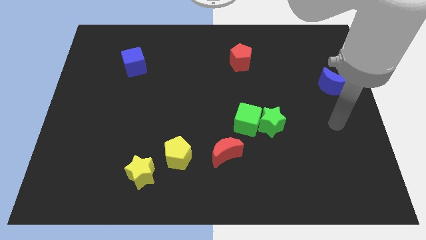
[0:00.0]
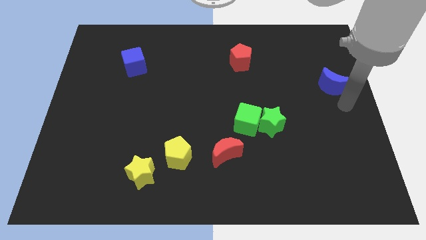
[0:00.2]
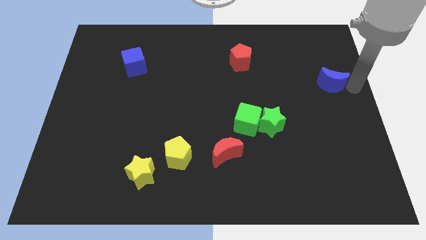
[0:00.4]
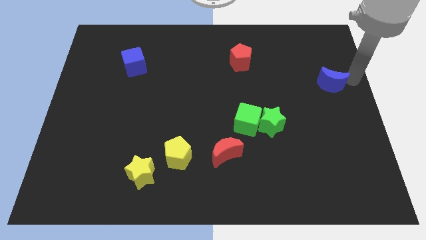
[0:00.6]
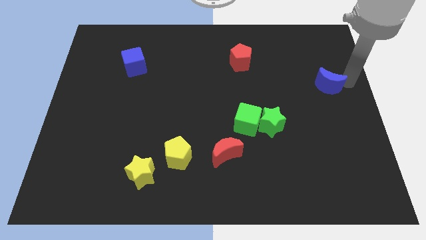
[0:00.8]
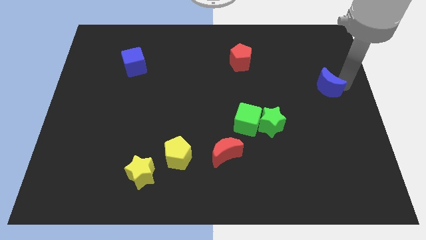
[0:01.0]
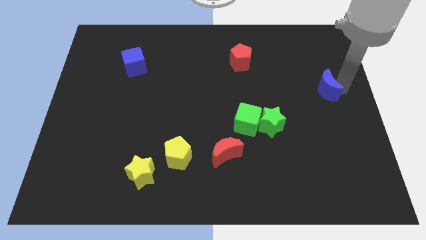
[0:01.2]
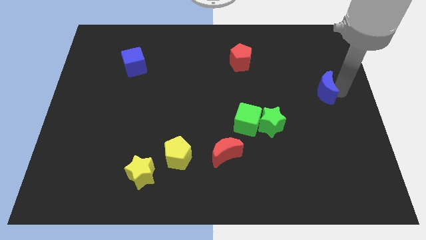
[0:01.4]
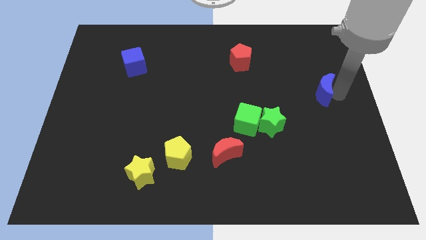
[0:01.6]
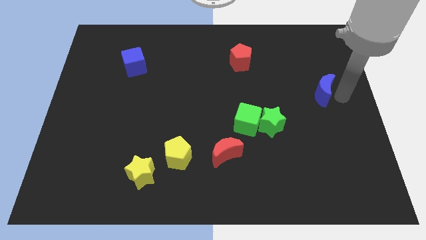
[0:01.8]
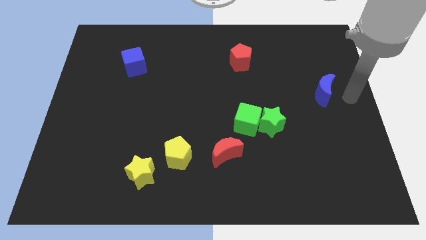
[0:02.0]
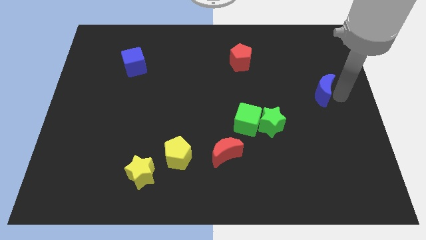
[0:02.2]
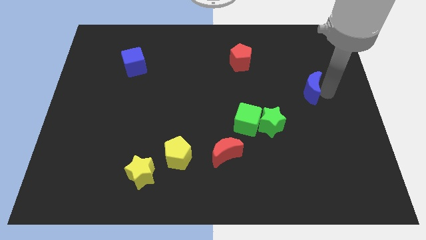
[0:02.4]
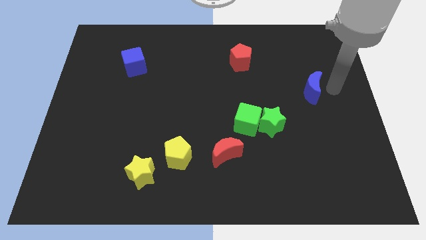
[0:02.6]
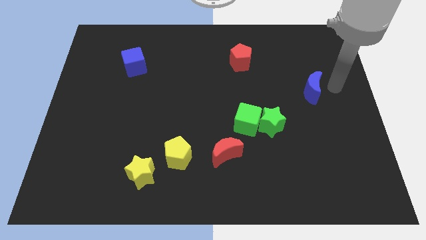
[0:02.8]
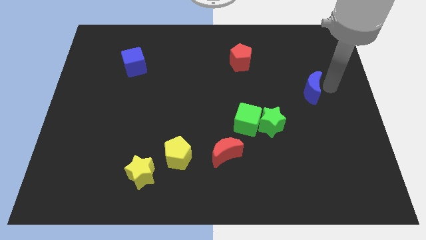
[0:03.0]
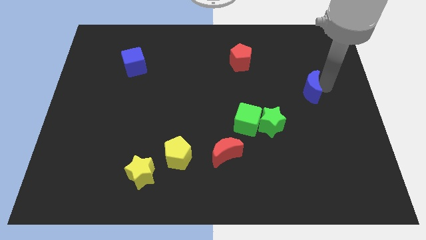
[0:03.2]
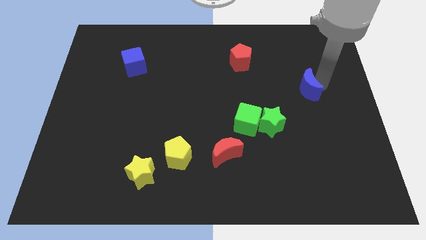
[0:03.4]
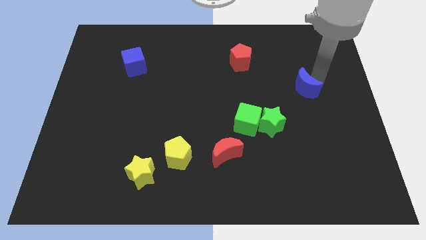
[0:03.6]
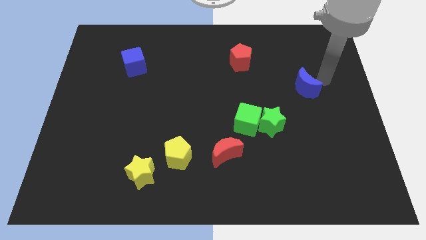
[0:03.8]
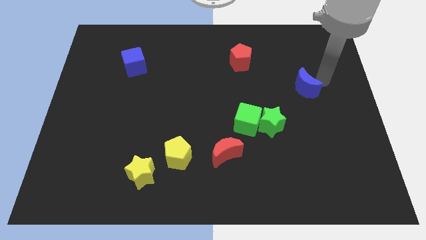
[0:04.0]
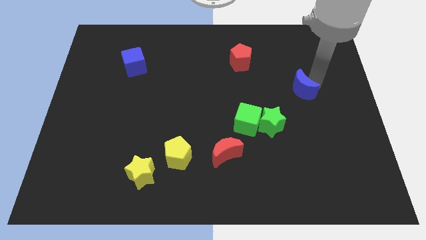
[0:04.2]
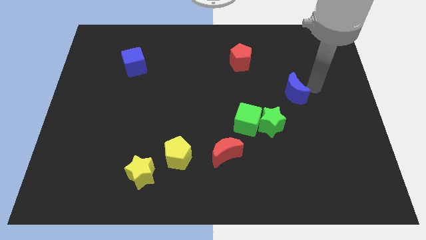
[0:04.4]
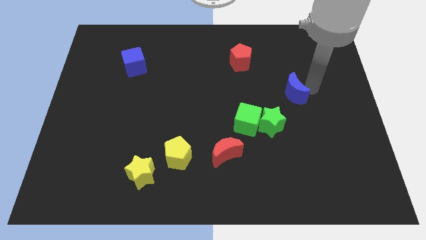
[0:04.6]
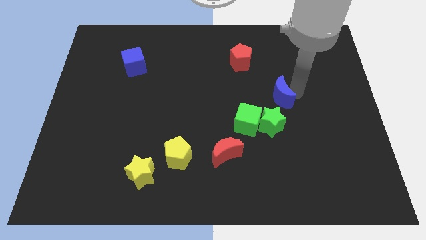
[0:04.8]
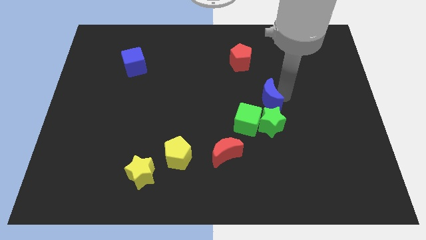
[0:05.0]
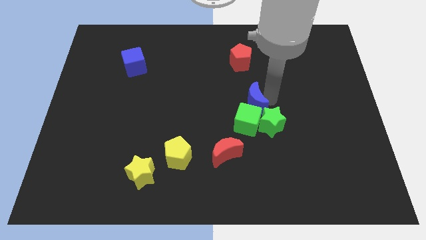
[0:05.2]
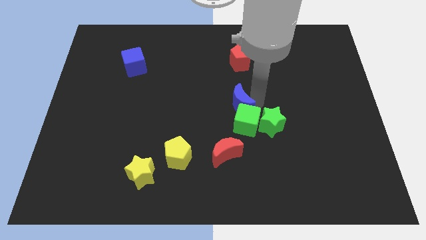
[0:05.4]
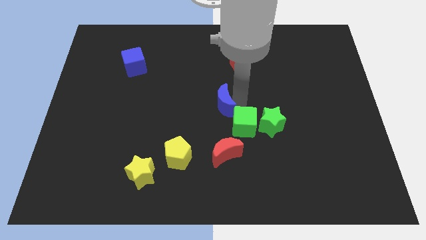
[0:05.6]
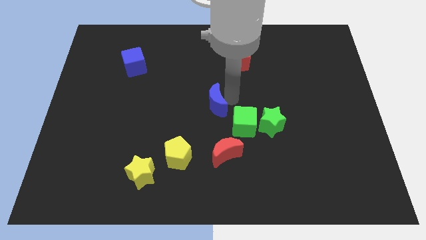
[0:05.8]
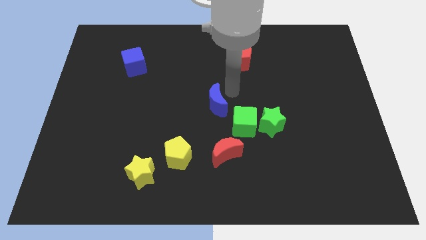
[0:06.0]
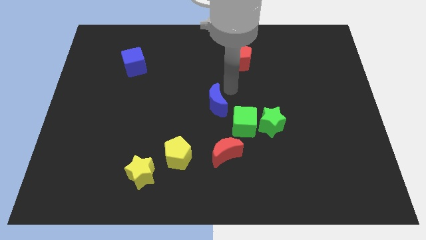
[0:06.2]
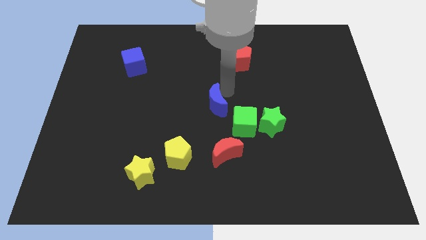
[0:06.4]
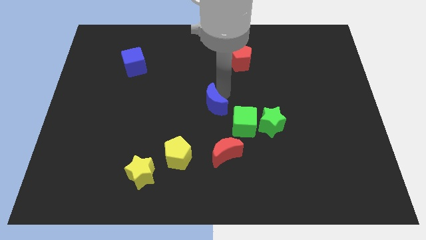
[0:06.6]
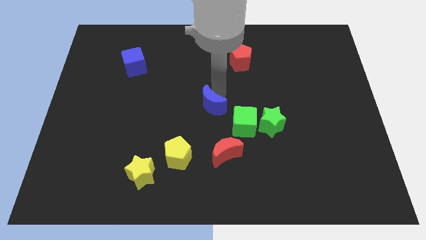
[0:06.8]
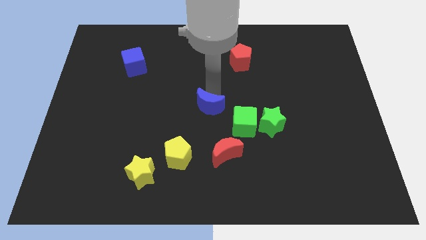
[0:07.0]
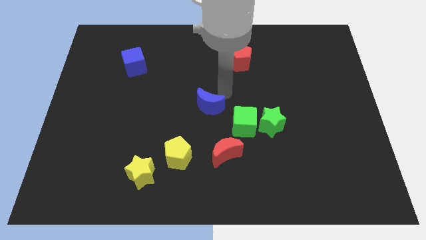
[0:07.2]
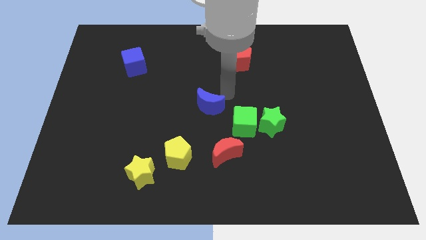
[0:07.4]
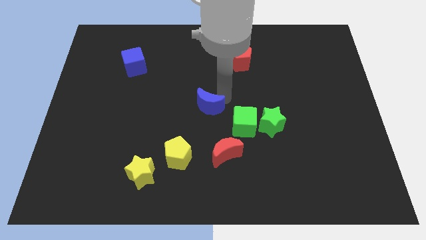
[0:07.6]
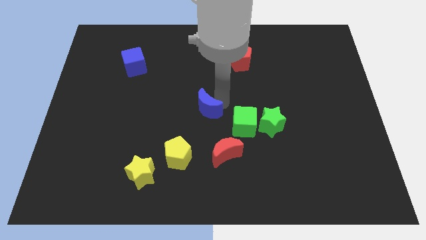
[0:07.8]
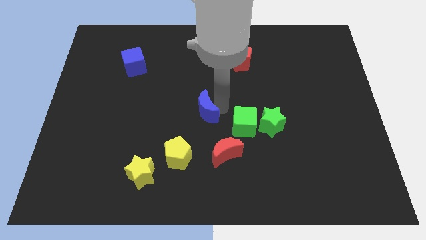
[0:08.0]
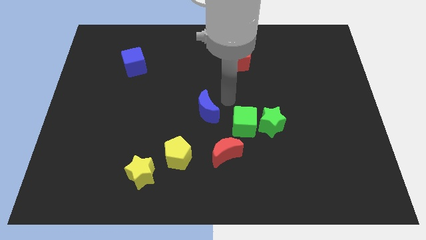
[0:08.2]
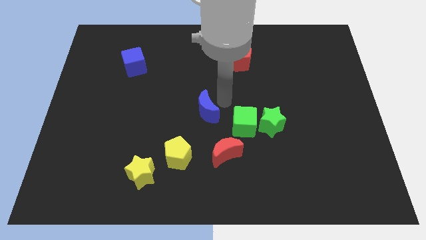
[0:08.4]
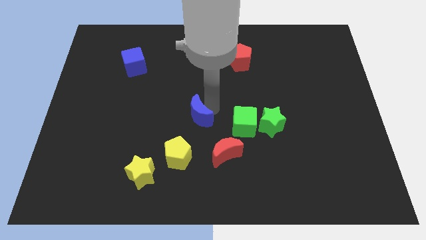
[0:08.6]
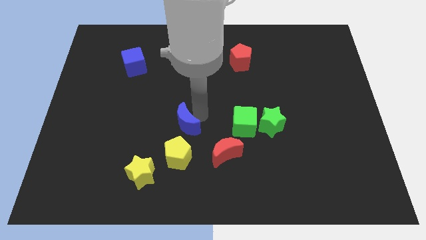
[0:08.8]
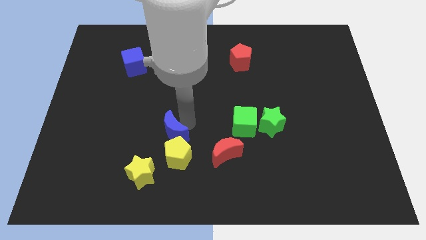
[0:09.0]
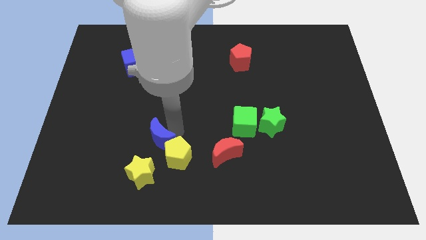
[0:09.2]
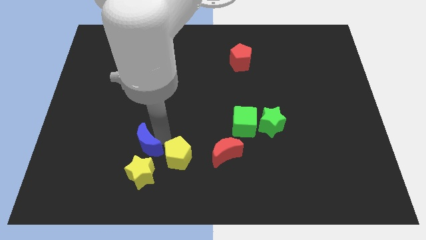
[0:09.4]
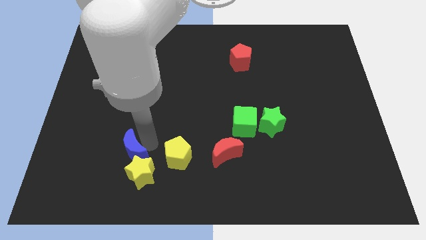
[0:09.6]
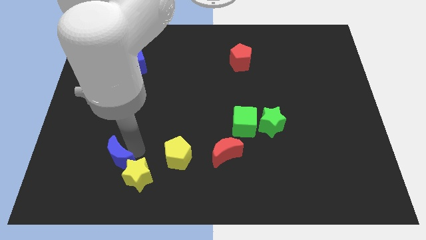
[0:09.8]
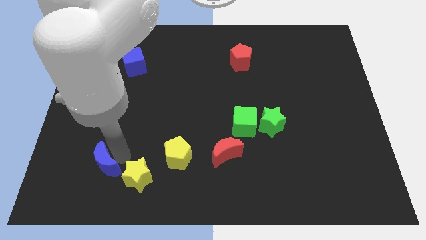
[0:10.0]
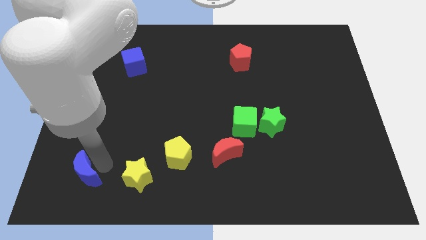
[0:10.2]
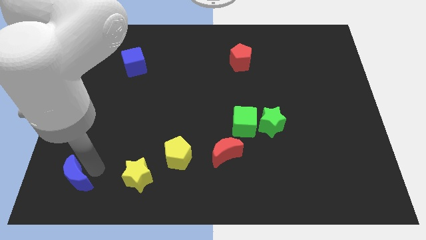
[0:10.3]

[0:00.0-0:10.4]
put the blue moon to the bottom left corner

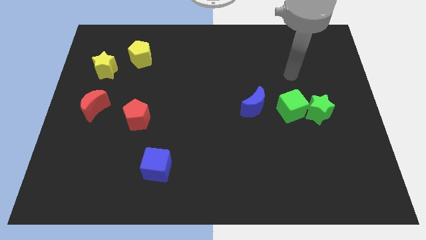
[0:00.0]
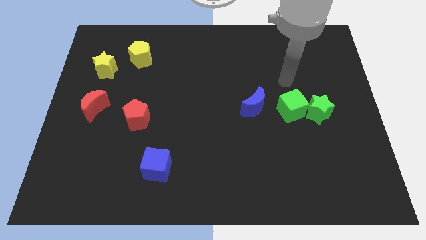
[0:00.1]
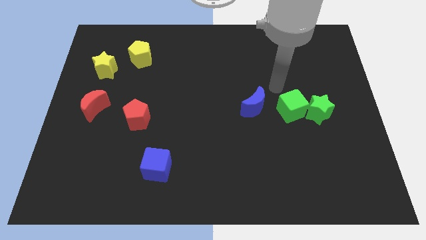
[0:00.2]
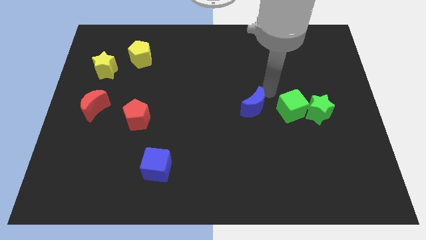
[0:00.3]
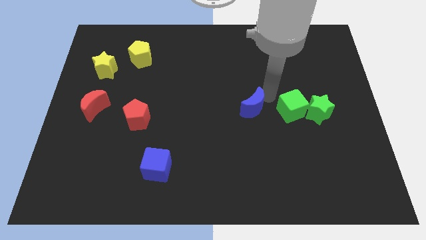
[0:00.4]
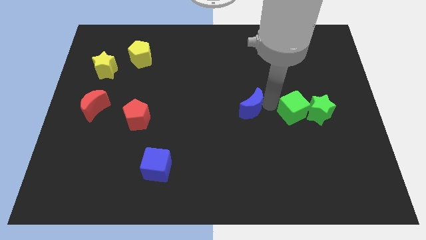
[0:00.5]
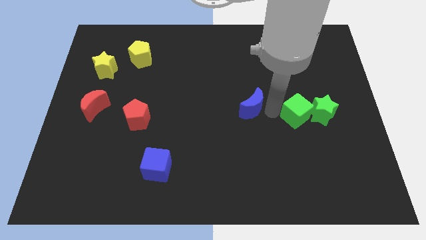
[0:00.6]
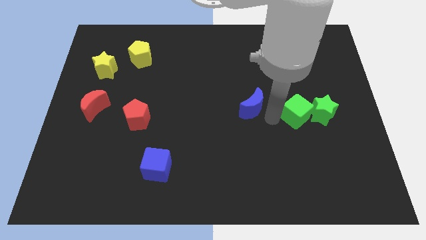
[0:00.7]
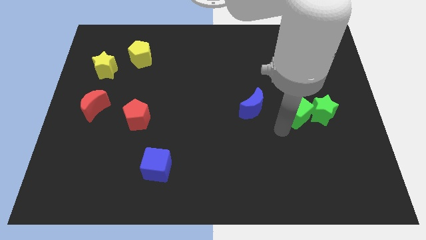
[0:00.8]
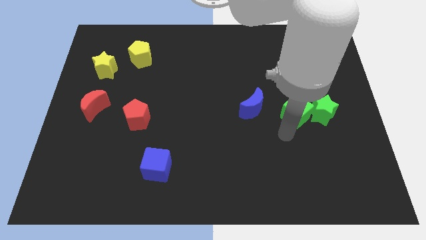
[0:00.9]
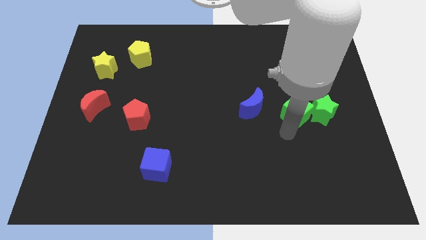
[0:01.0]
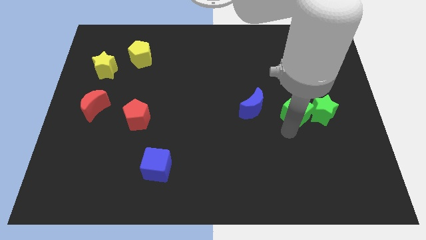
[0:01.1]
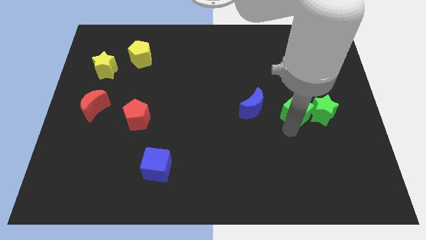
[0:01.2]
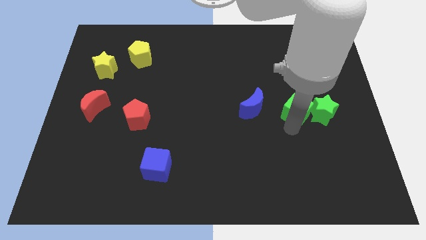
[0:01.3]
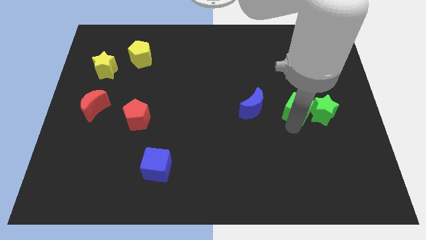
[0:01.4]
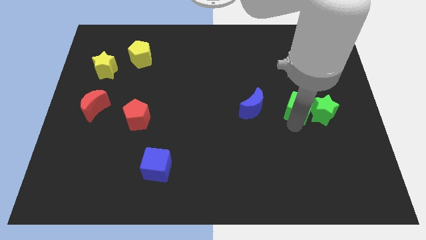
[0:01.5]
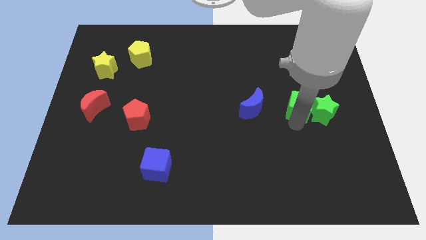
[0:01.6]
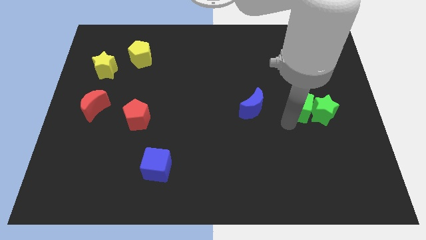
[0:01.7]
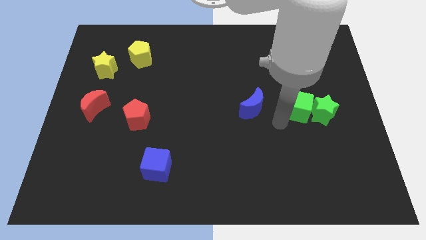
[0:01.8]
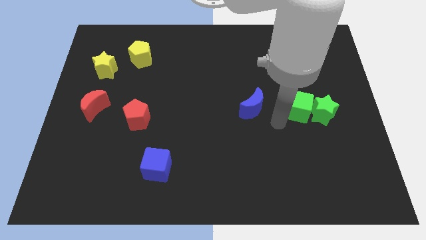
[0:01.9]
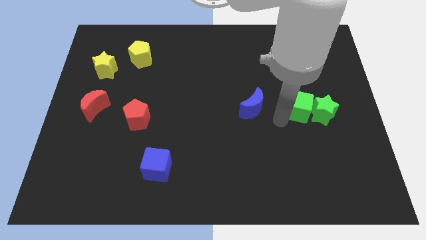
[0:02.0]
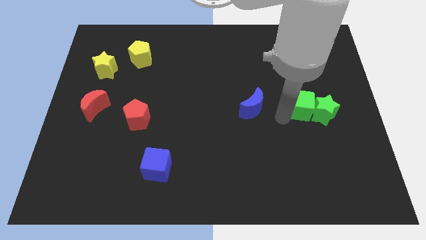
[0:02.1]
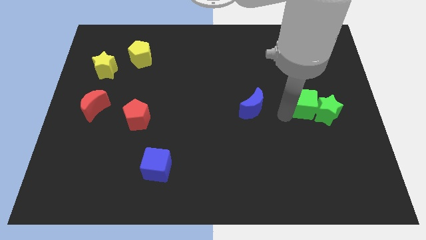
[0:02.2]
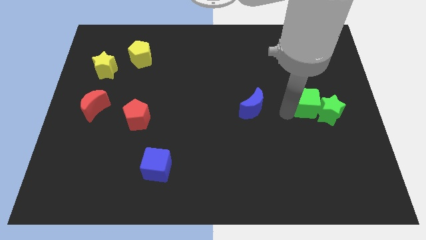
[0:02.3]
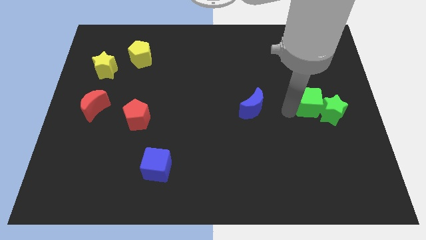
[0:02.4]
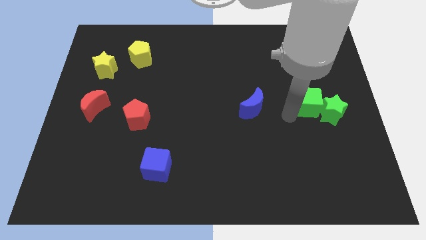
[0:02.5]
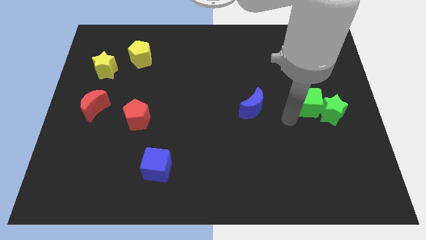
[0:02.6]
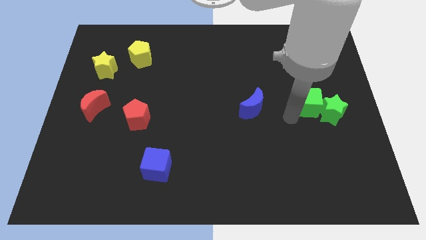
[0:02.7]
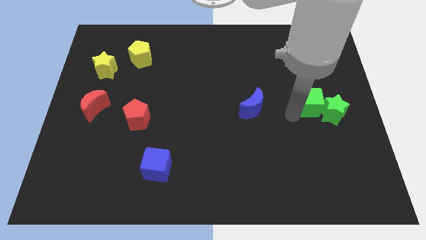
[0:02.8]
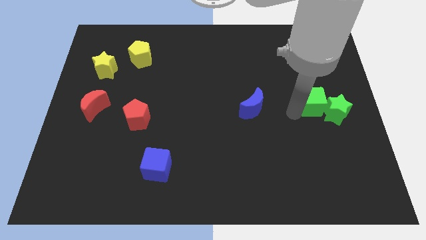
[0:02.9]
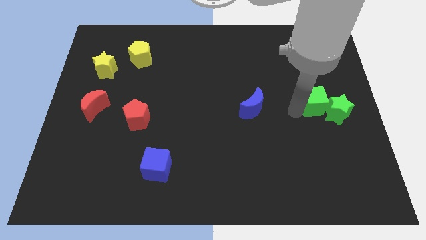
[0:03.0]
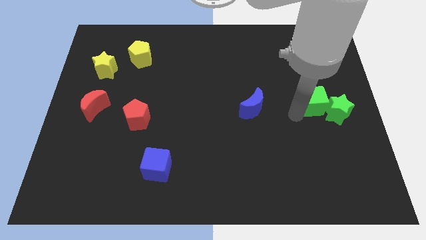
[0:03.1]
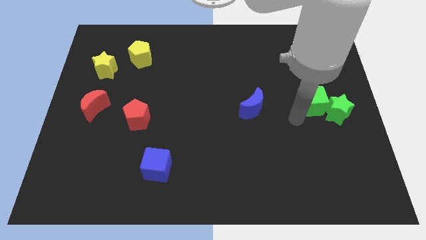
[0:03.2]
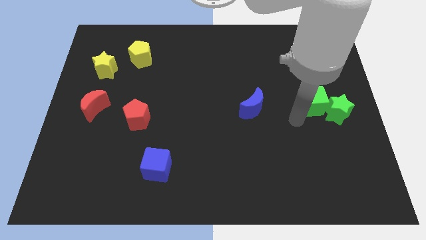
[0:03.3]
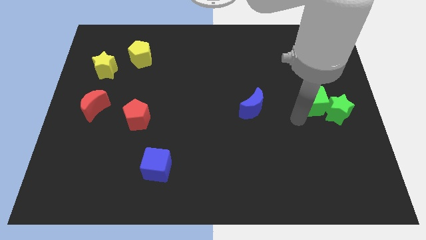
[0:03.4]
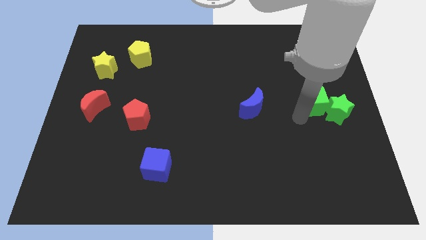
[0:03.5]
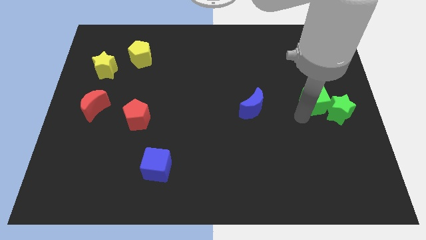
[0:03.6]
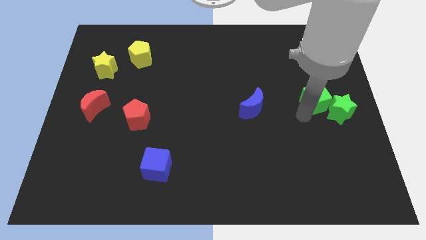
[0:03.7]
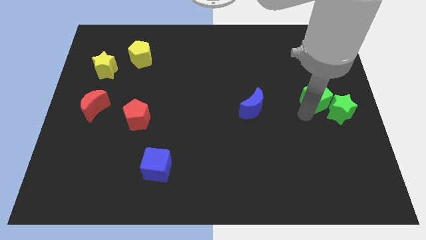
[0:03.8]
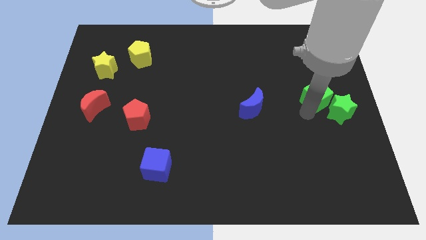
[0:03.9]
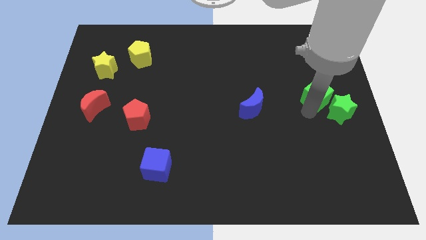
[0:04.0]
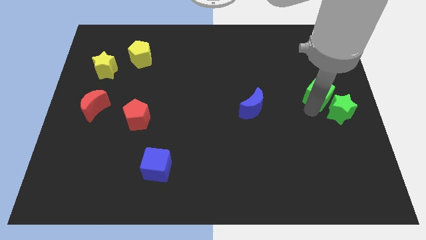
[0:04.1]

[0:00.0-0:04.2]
move the green cube to the right side
